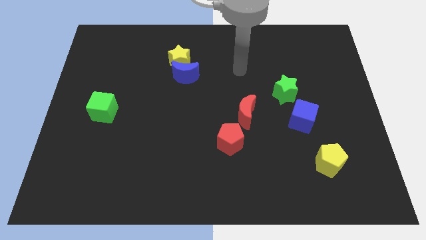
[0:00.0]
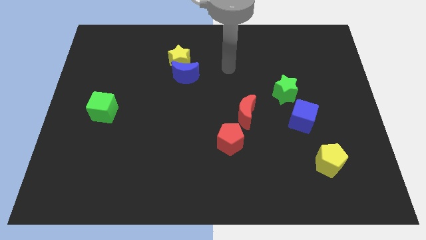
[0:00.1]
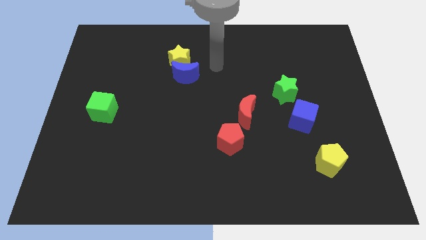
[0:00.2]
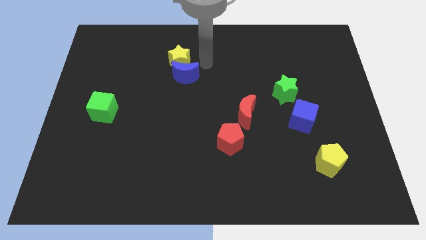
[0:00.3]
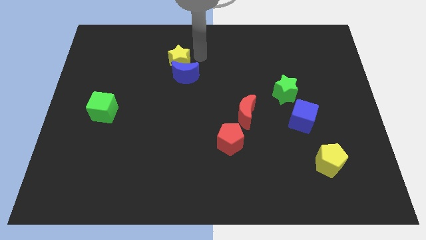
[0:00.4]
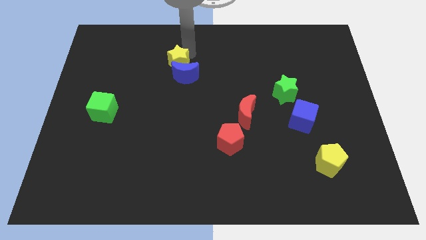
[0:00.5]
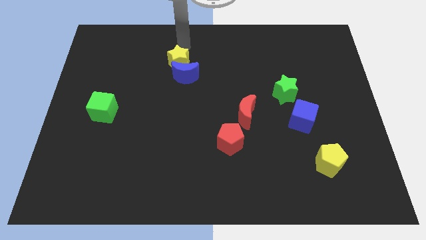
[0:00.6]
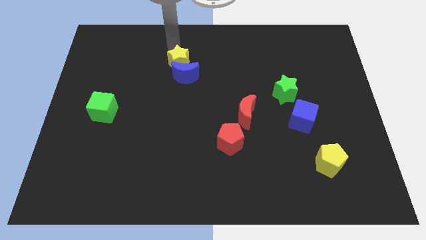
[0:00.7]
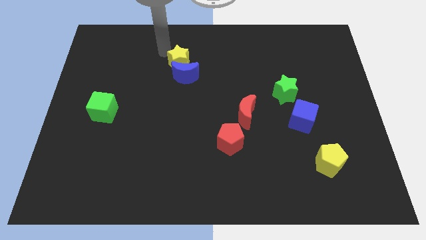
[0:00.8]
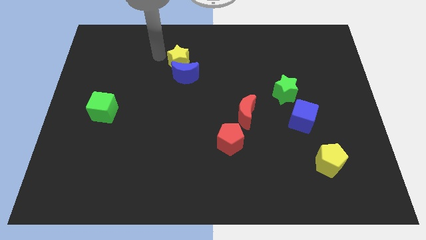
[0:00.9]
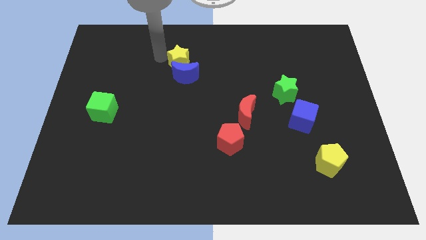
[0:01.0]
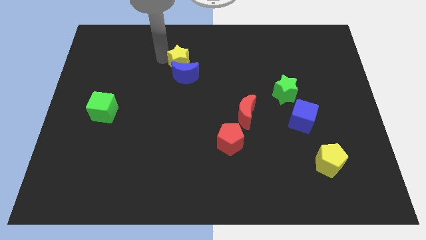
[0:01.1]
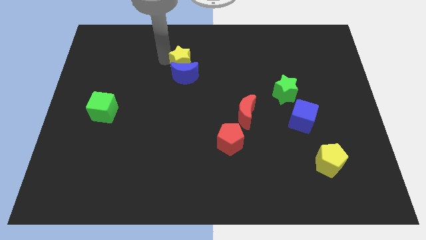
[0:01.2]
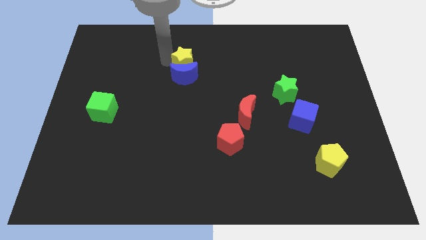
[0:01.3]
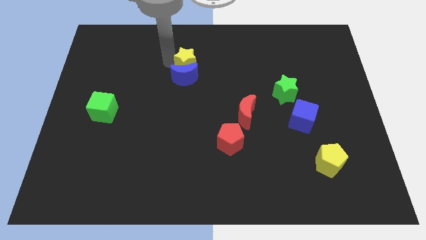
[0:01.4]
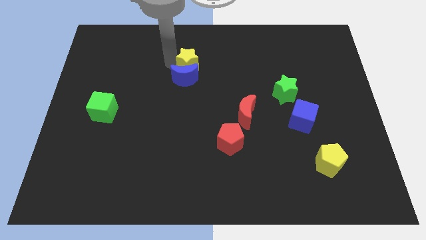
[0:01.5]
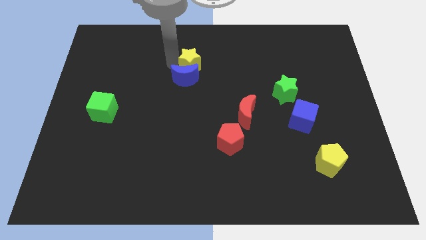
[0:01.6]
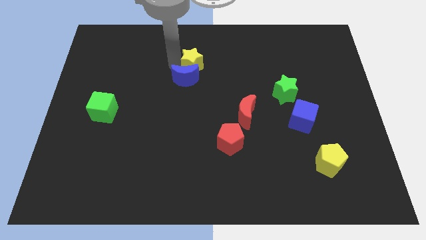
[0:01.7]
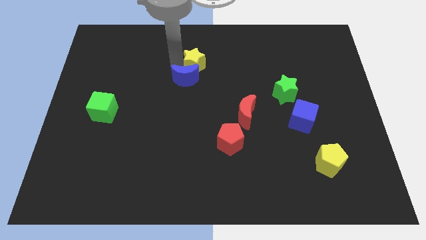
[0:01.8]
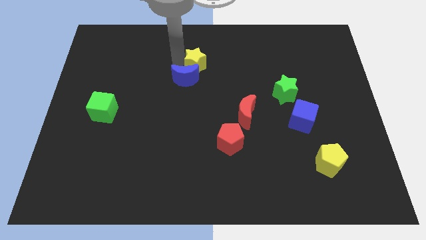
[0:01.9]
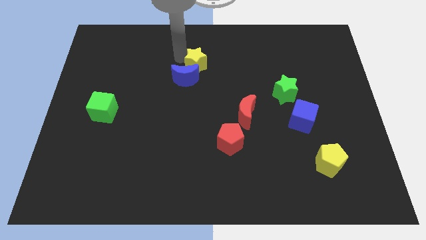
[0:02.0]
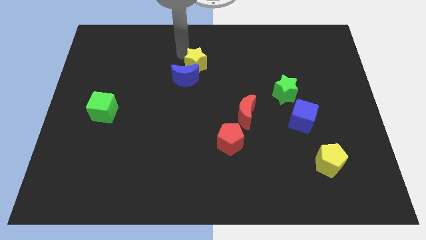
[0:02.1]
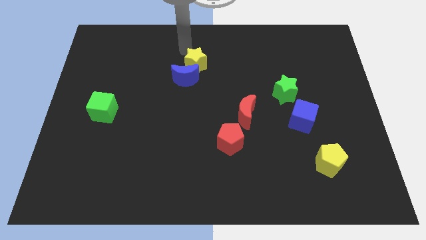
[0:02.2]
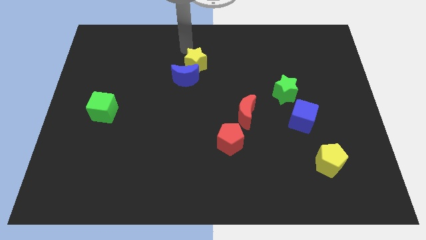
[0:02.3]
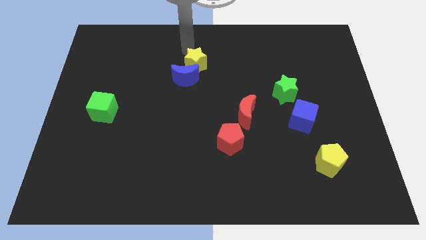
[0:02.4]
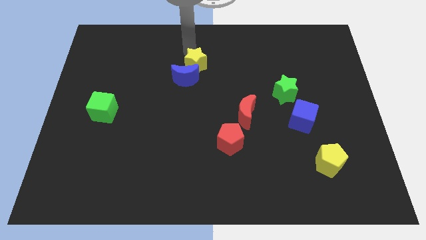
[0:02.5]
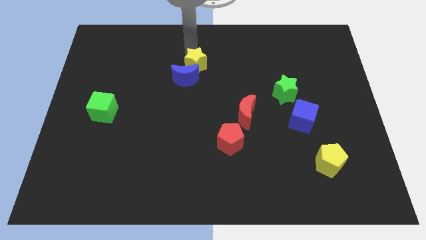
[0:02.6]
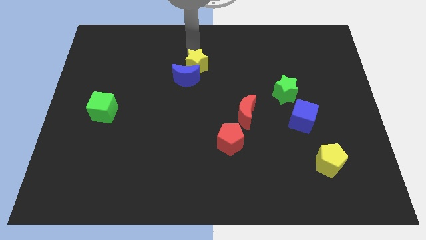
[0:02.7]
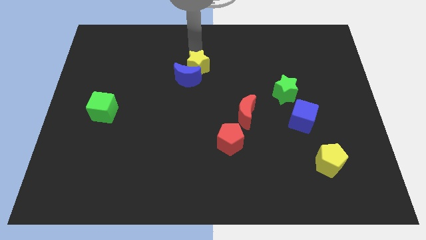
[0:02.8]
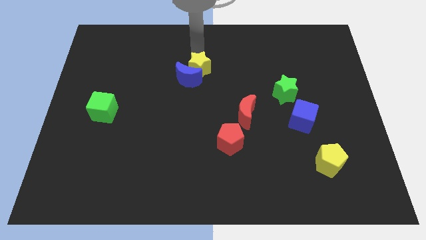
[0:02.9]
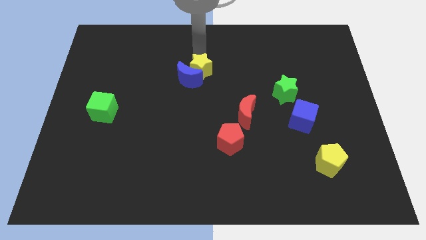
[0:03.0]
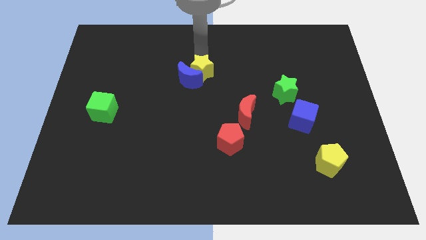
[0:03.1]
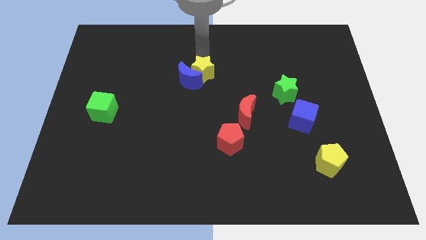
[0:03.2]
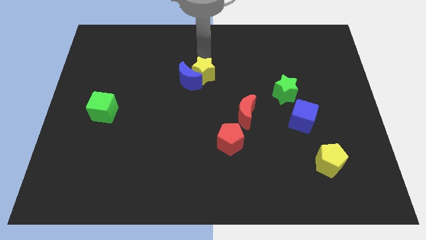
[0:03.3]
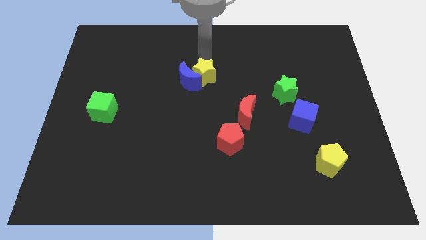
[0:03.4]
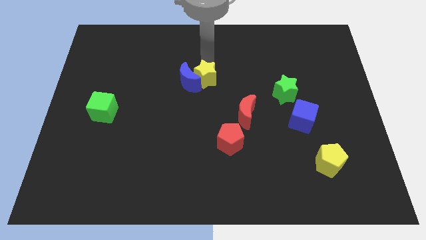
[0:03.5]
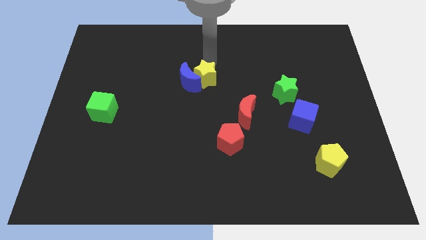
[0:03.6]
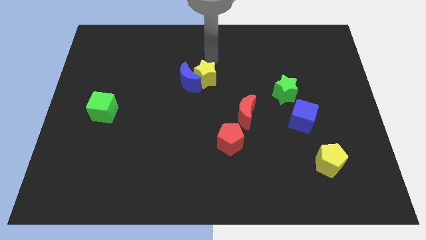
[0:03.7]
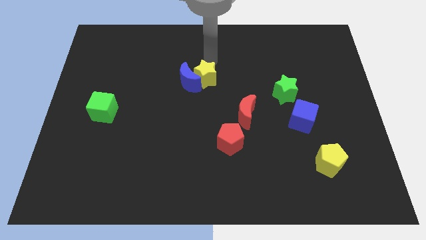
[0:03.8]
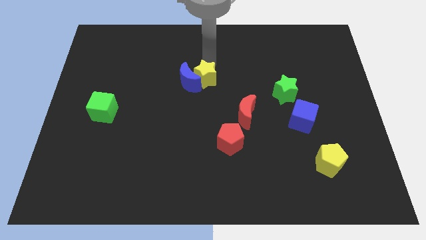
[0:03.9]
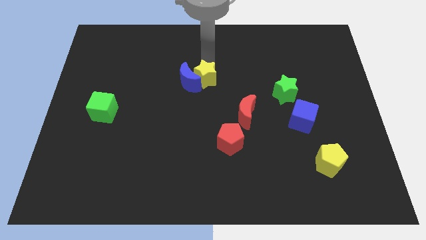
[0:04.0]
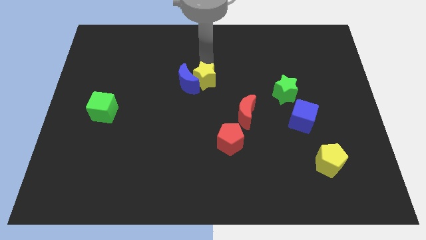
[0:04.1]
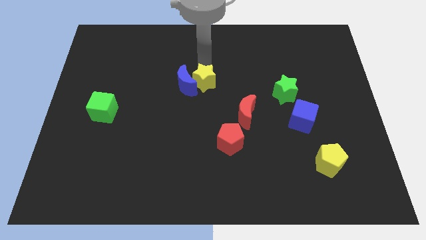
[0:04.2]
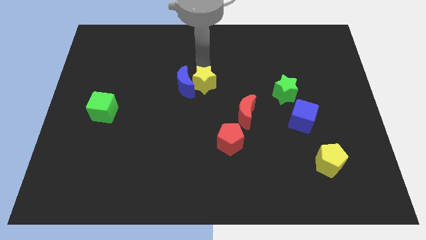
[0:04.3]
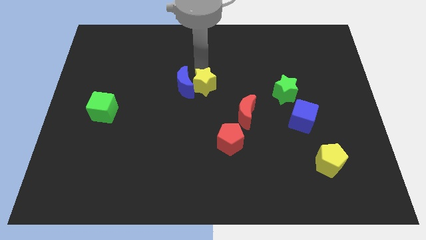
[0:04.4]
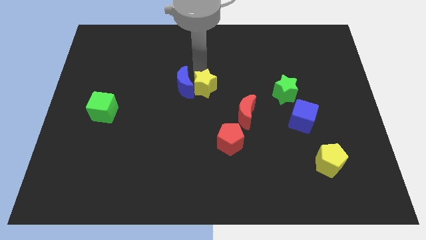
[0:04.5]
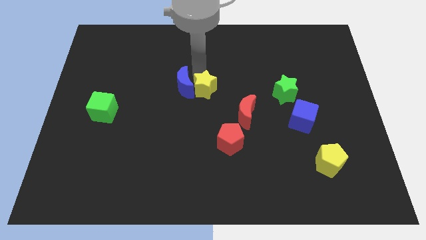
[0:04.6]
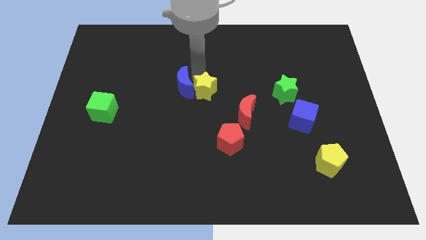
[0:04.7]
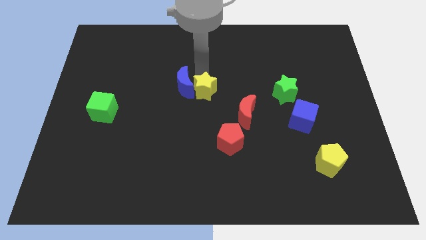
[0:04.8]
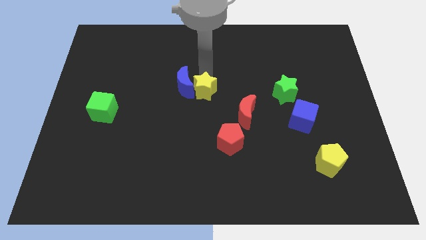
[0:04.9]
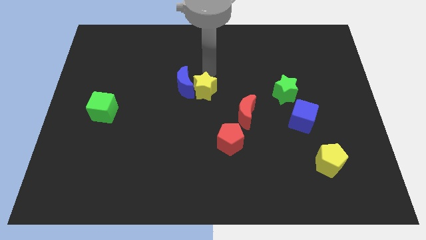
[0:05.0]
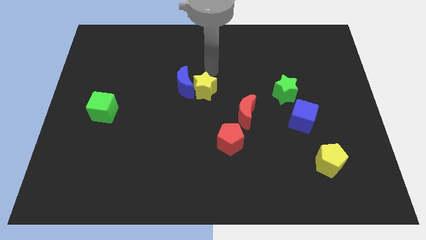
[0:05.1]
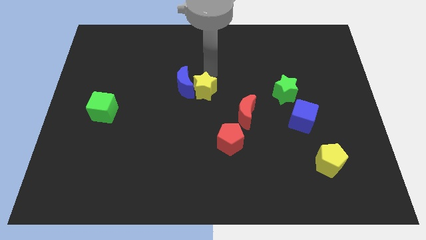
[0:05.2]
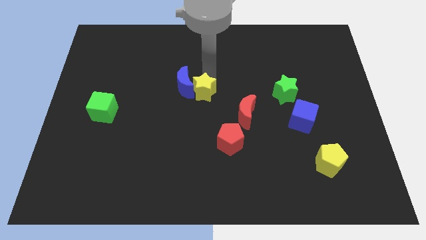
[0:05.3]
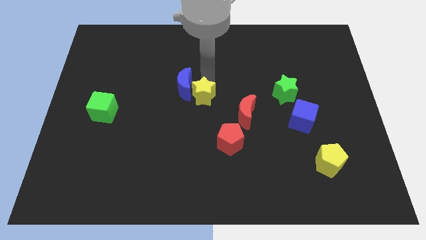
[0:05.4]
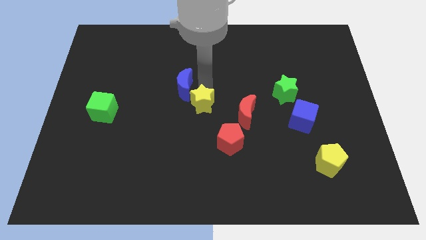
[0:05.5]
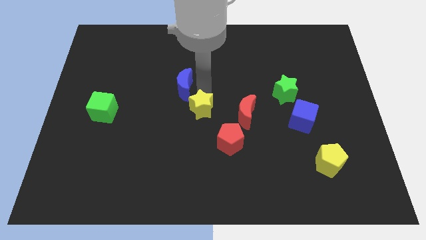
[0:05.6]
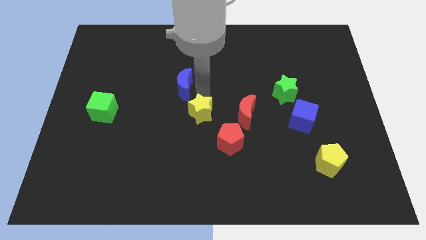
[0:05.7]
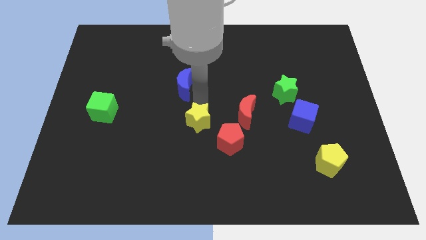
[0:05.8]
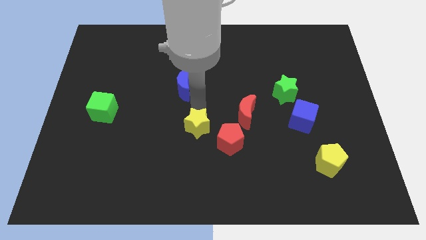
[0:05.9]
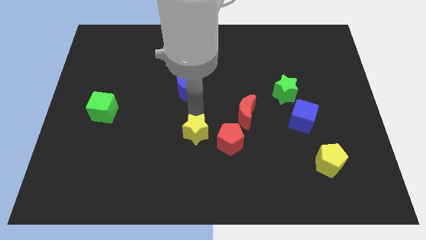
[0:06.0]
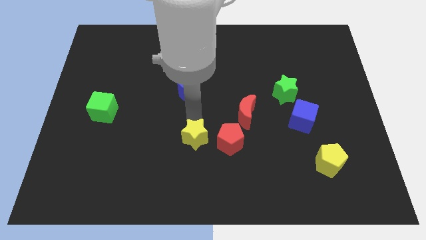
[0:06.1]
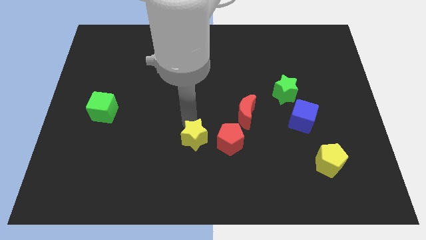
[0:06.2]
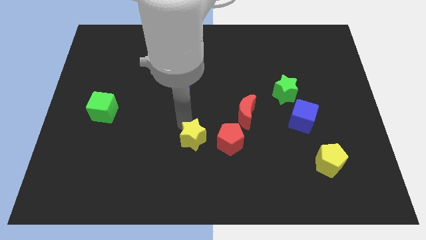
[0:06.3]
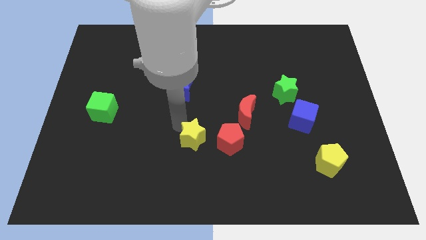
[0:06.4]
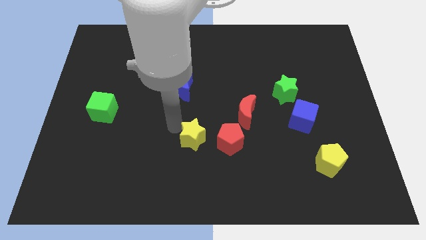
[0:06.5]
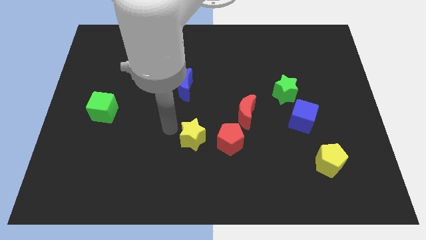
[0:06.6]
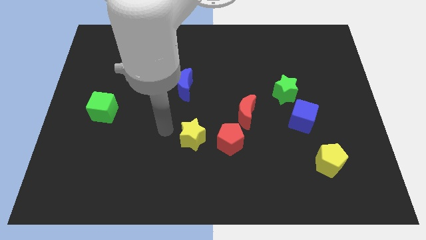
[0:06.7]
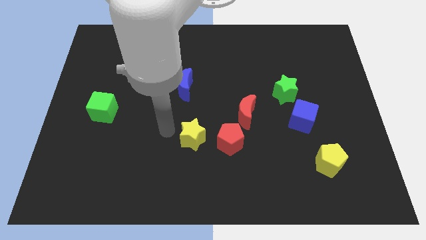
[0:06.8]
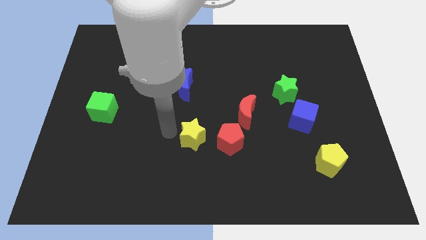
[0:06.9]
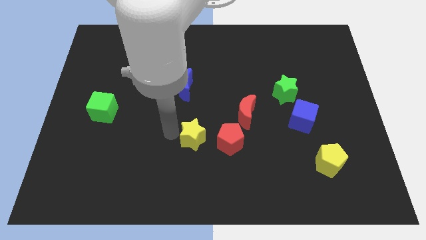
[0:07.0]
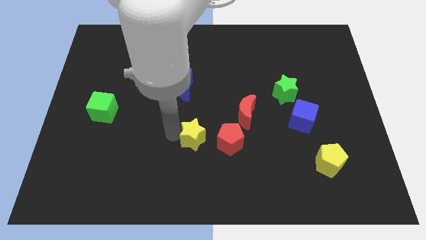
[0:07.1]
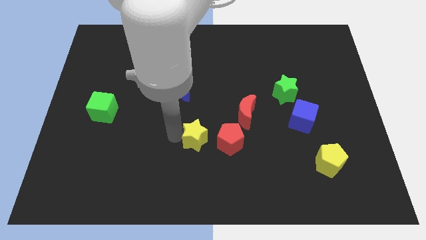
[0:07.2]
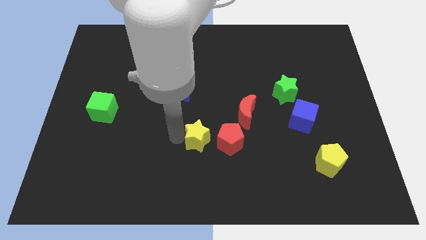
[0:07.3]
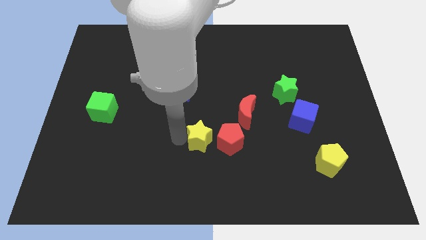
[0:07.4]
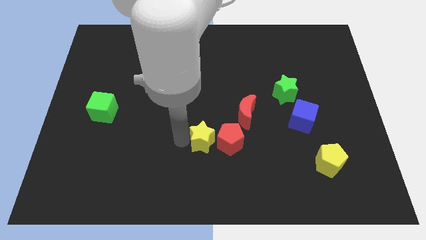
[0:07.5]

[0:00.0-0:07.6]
move the yellow star diagonally down and to the left of the red moon
